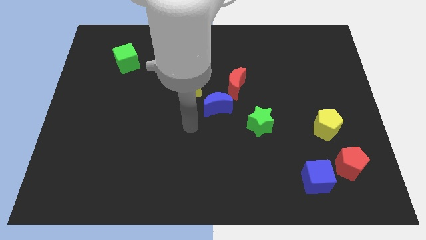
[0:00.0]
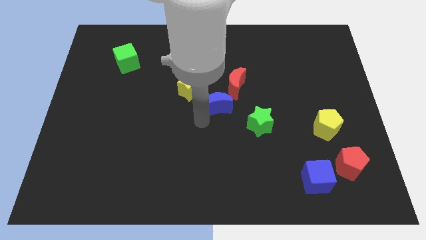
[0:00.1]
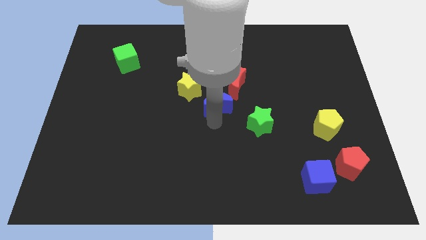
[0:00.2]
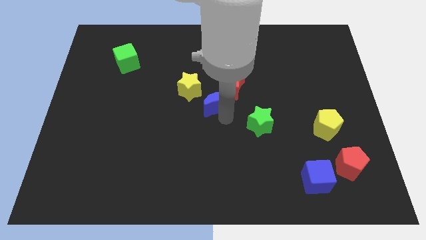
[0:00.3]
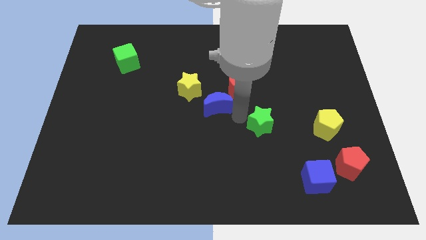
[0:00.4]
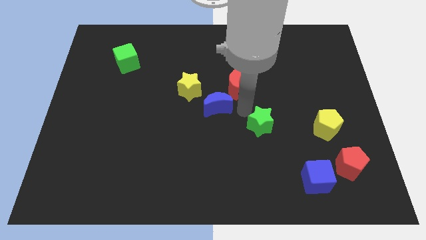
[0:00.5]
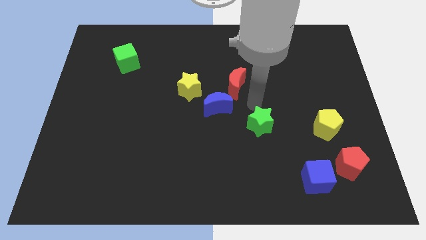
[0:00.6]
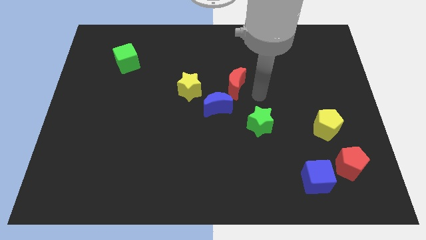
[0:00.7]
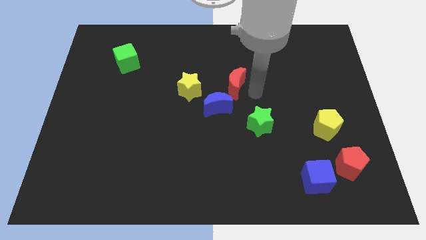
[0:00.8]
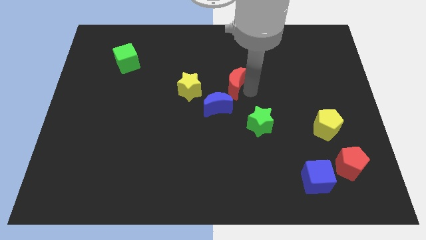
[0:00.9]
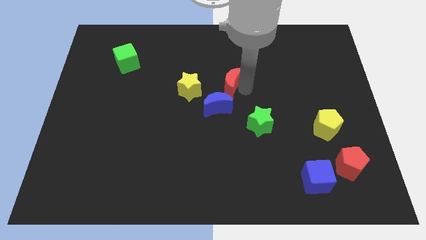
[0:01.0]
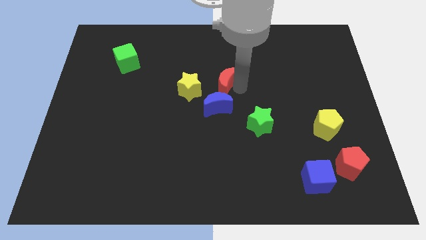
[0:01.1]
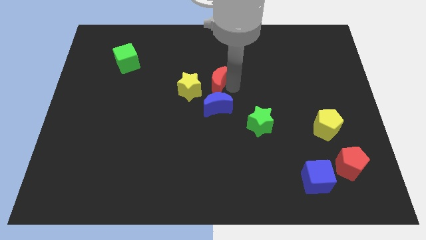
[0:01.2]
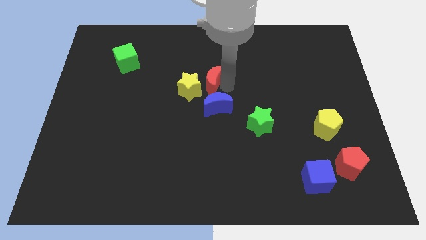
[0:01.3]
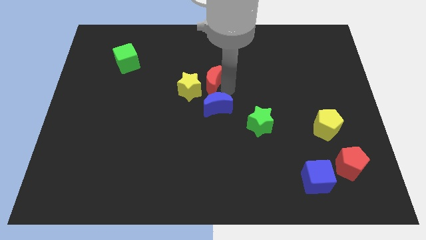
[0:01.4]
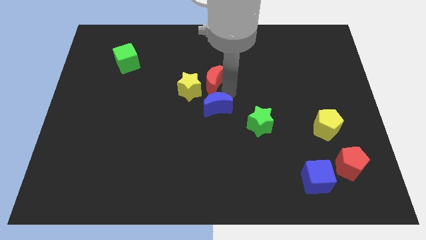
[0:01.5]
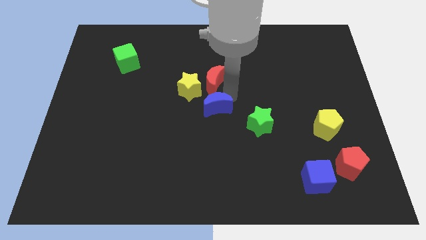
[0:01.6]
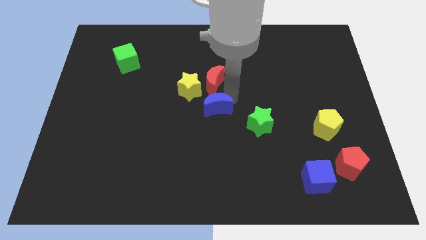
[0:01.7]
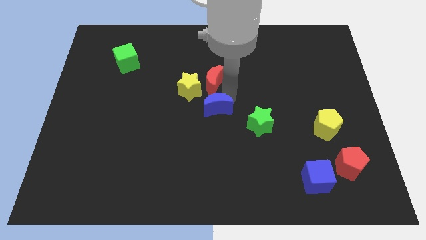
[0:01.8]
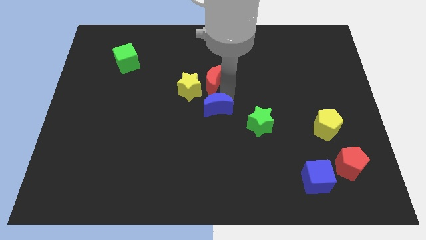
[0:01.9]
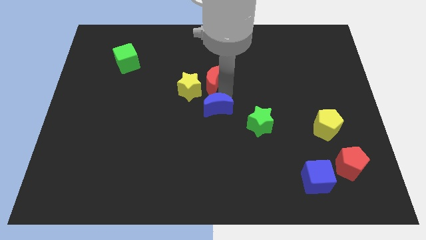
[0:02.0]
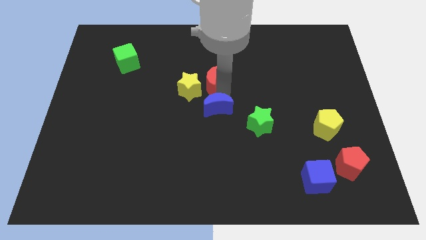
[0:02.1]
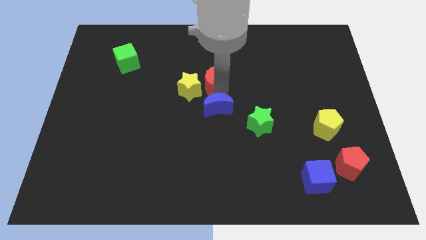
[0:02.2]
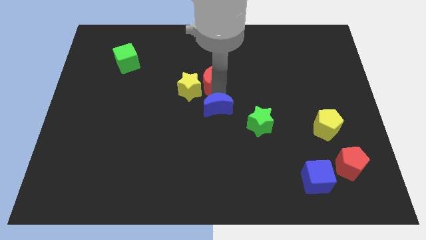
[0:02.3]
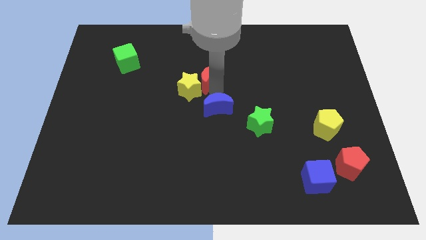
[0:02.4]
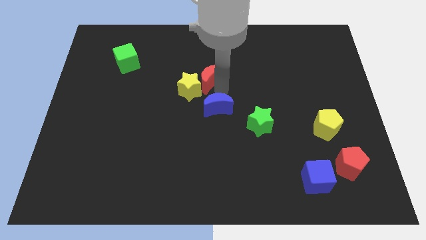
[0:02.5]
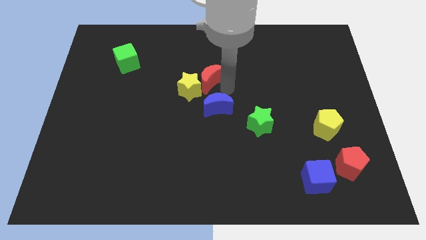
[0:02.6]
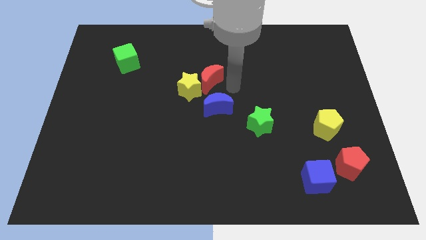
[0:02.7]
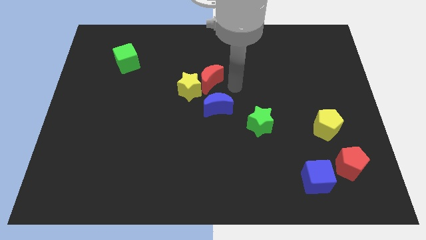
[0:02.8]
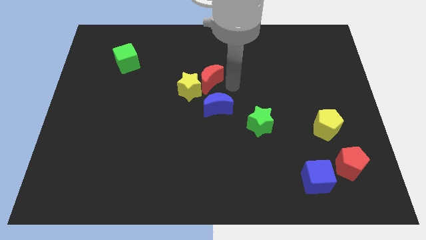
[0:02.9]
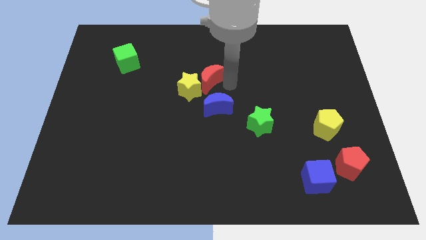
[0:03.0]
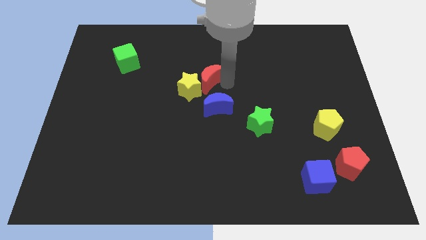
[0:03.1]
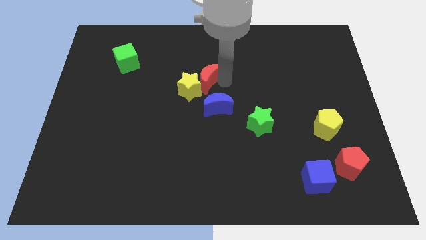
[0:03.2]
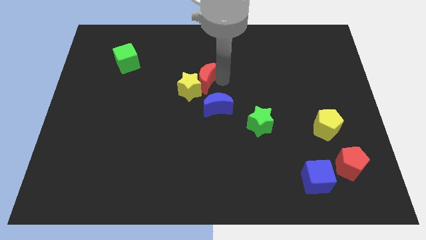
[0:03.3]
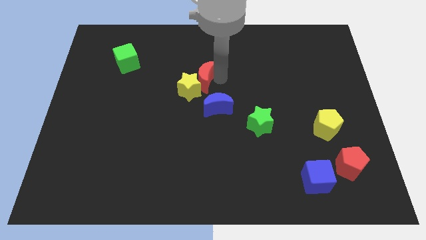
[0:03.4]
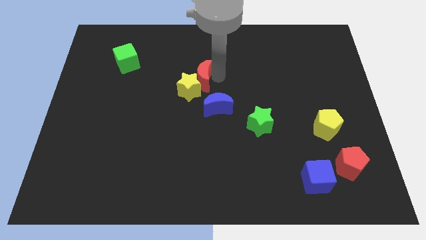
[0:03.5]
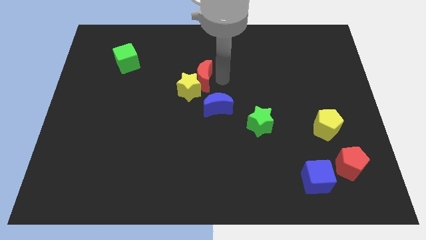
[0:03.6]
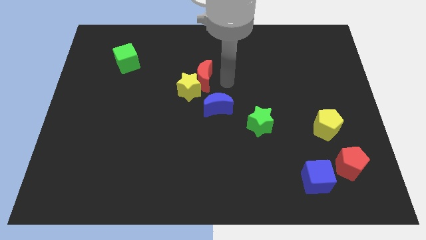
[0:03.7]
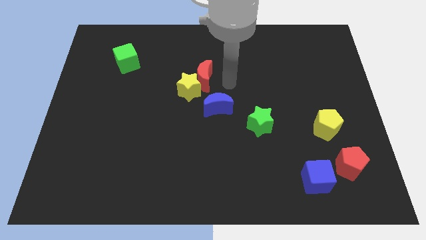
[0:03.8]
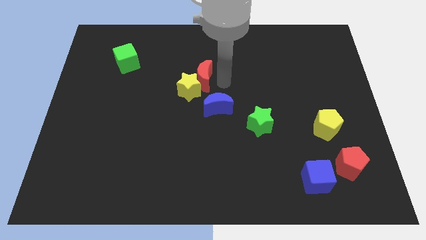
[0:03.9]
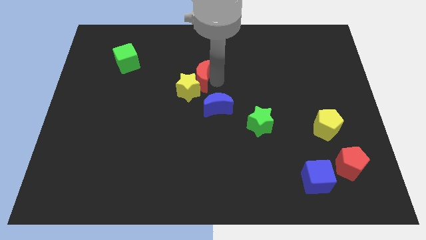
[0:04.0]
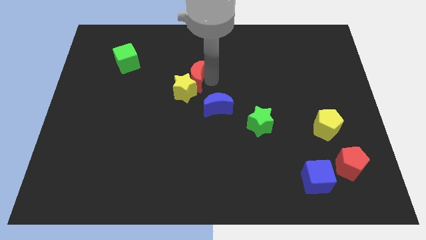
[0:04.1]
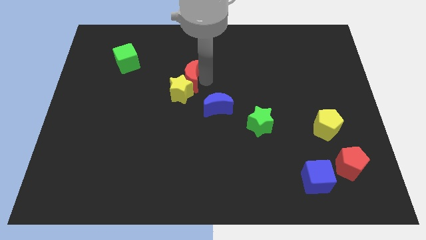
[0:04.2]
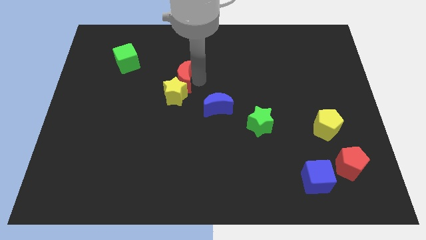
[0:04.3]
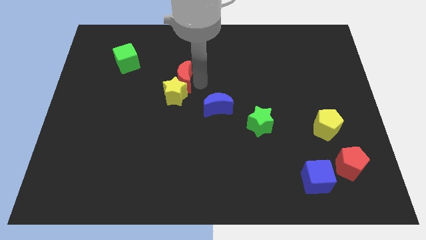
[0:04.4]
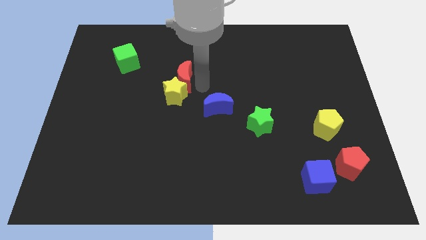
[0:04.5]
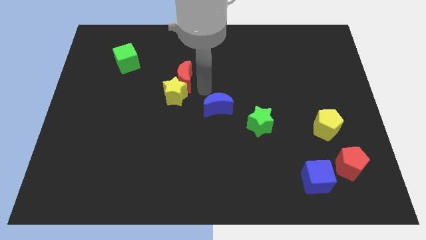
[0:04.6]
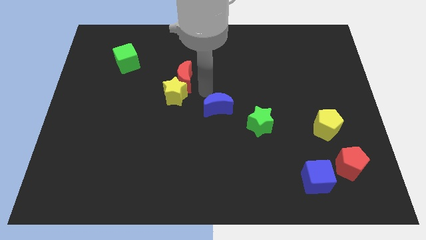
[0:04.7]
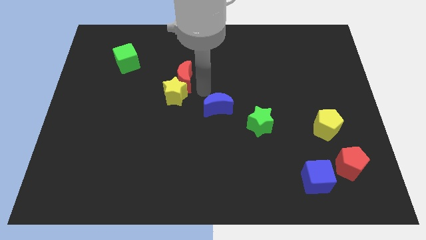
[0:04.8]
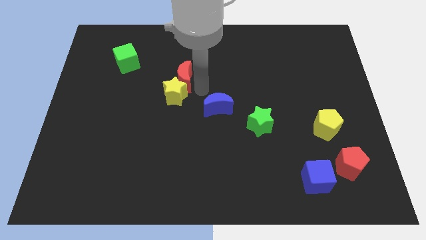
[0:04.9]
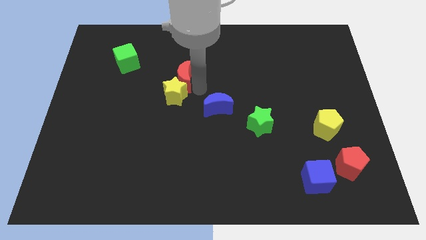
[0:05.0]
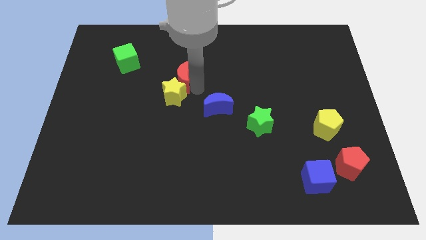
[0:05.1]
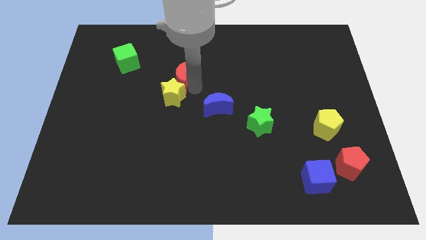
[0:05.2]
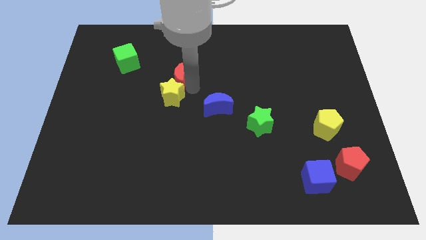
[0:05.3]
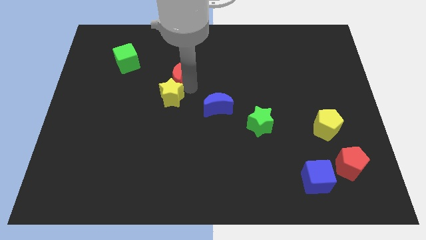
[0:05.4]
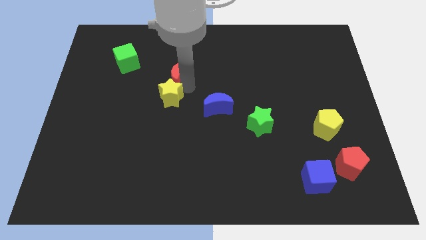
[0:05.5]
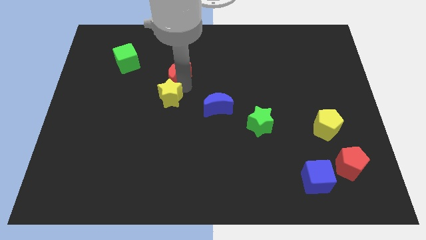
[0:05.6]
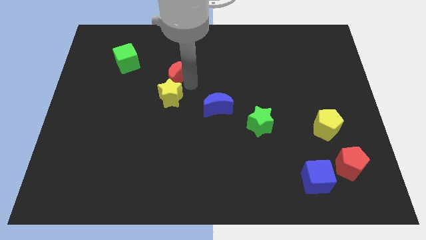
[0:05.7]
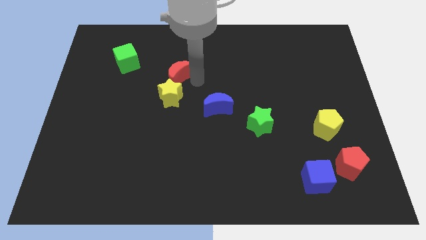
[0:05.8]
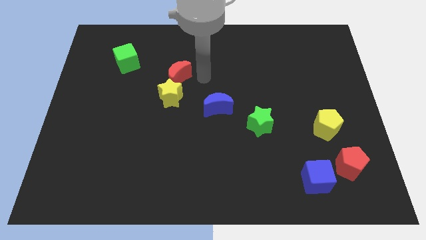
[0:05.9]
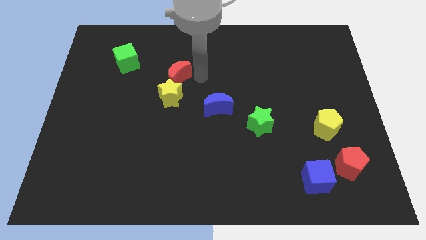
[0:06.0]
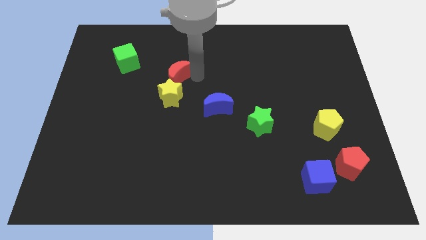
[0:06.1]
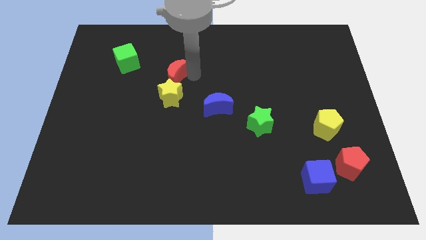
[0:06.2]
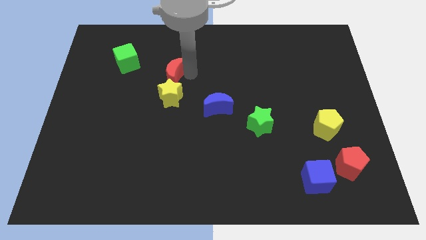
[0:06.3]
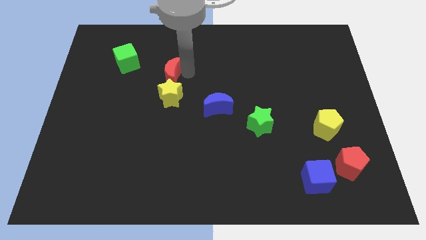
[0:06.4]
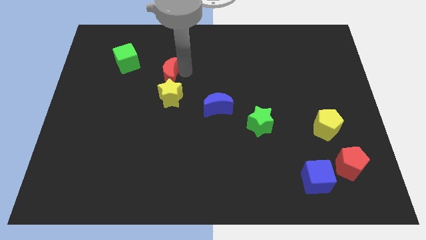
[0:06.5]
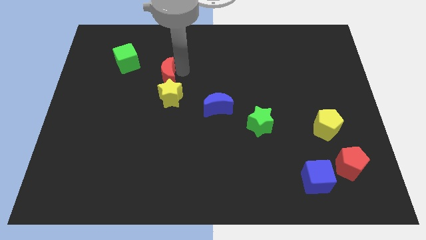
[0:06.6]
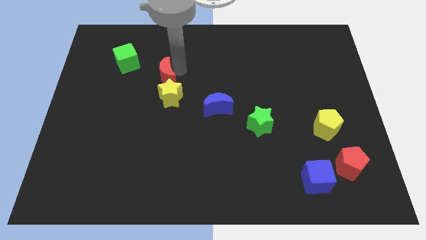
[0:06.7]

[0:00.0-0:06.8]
slide the red moon diagonally down and to the right of the green cube

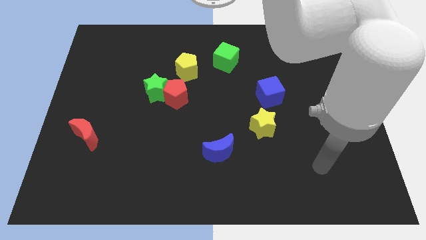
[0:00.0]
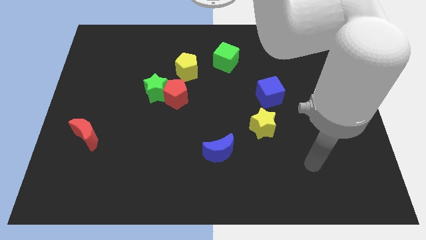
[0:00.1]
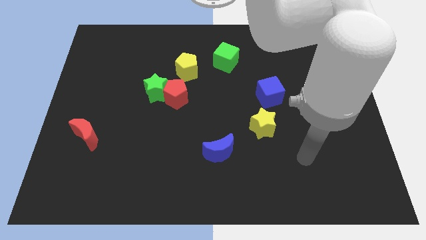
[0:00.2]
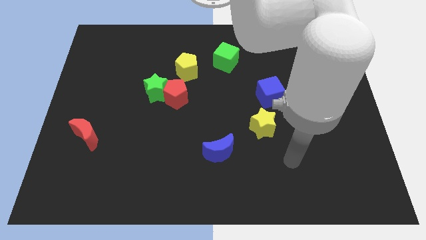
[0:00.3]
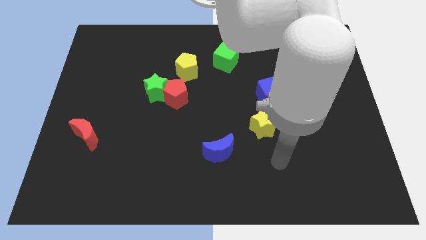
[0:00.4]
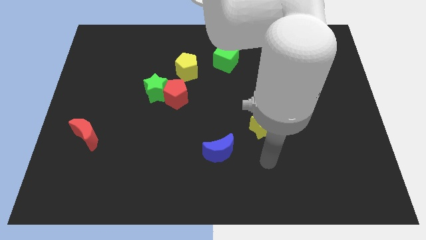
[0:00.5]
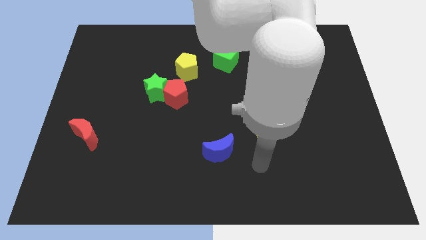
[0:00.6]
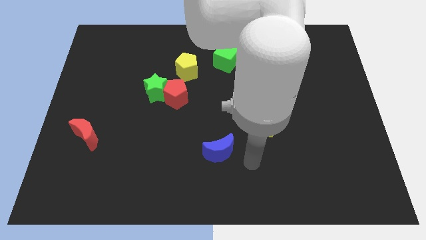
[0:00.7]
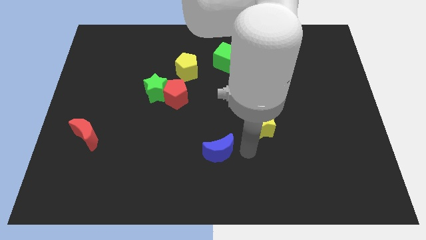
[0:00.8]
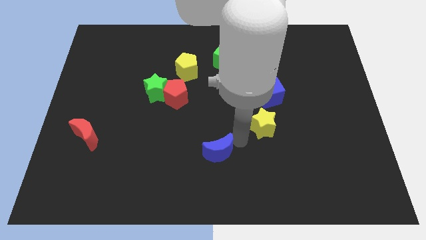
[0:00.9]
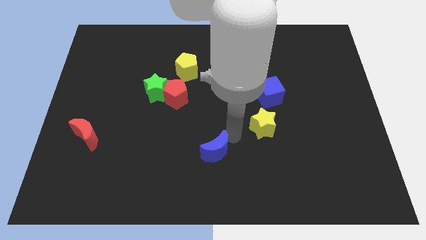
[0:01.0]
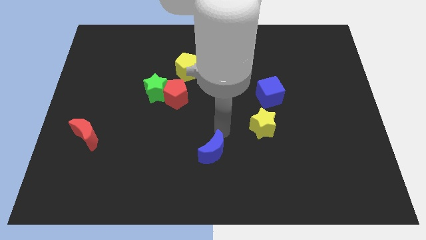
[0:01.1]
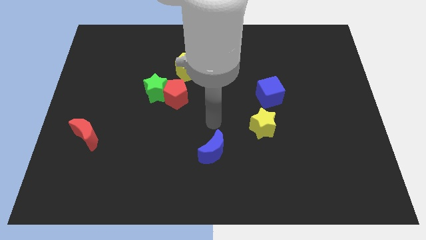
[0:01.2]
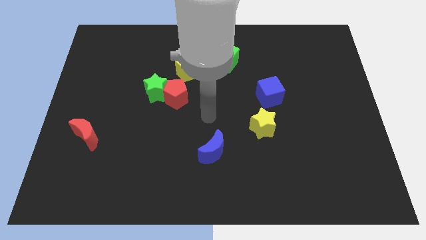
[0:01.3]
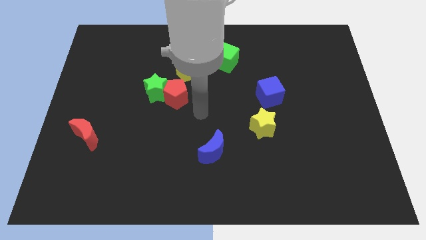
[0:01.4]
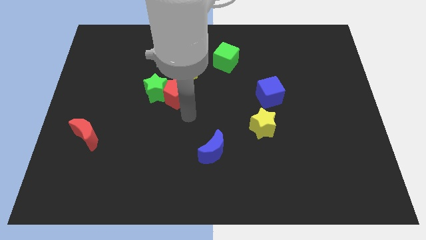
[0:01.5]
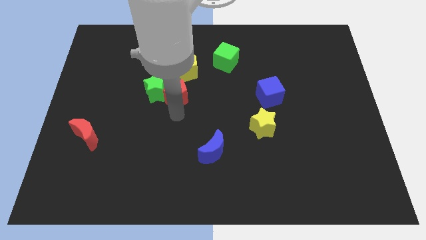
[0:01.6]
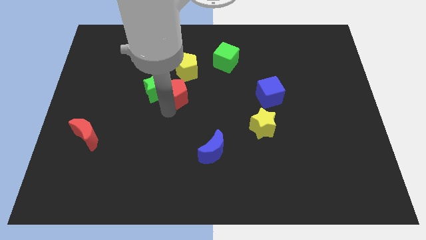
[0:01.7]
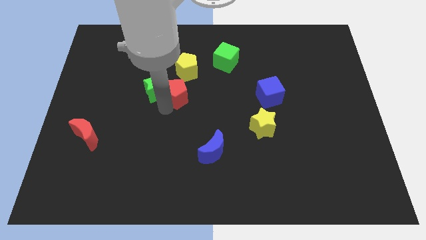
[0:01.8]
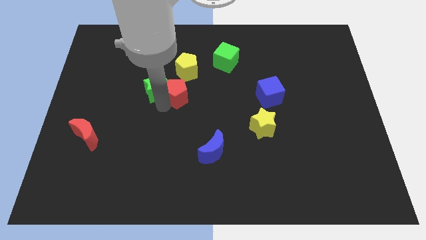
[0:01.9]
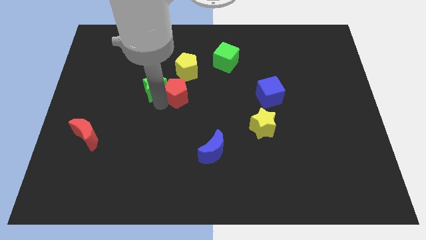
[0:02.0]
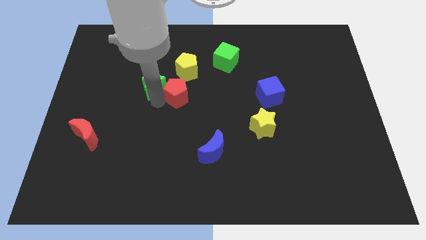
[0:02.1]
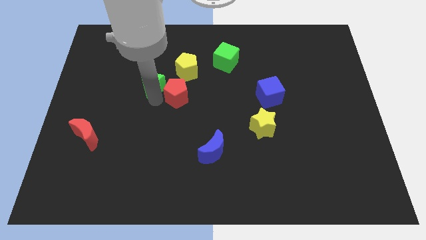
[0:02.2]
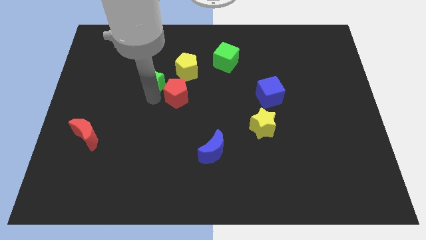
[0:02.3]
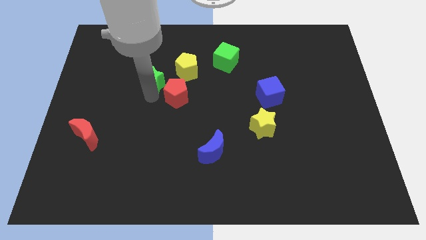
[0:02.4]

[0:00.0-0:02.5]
push the green star to the left side of the yellow pentagon
